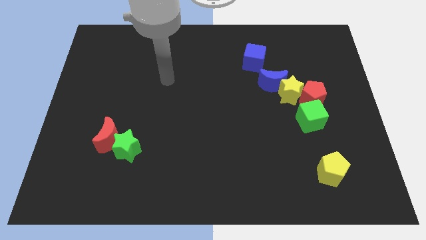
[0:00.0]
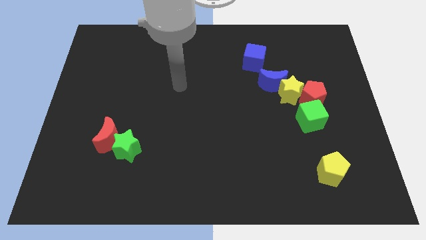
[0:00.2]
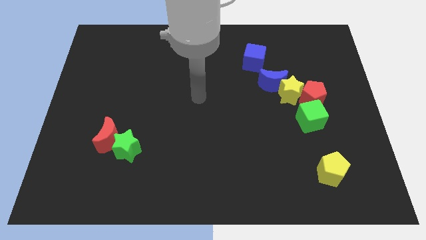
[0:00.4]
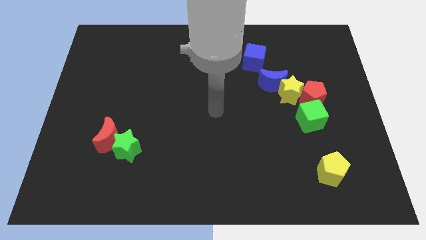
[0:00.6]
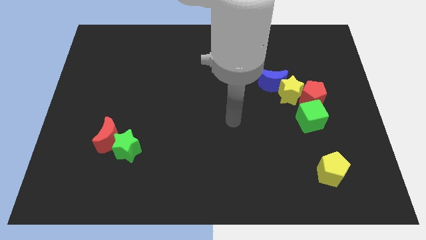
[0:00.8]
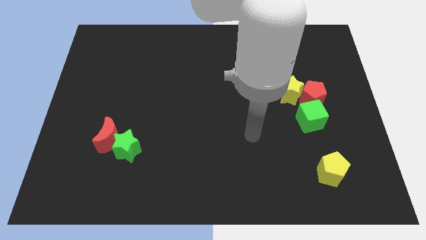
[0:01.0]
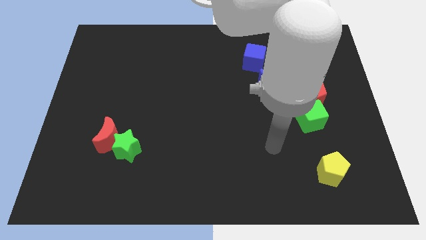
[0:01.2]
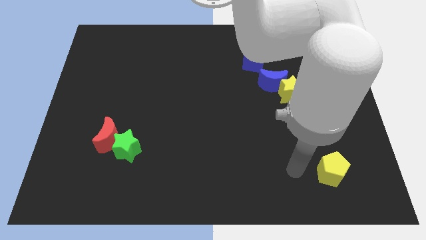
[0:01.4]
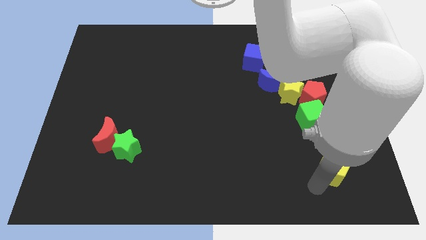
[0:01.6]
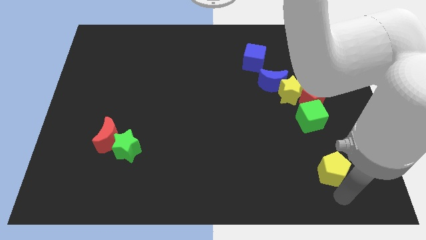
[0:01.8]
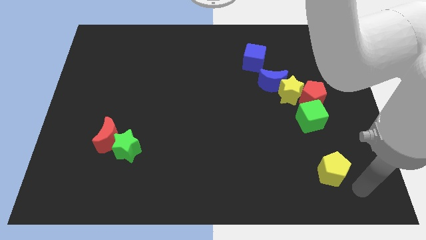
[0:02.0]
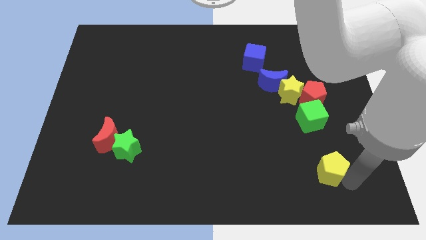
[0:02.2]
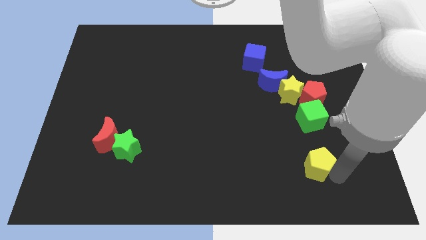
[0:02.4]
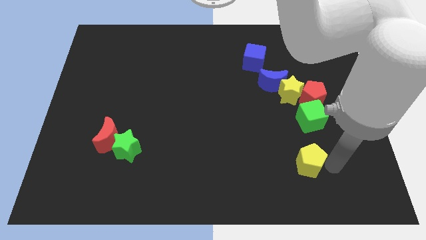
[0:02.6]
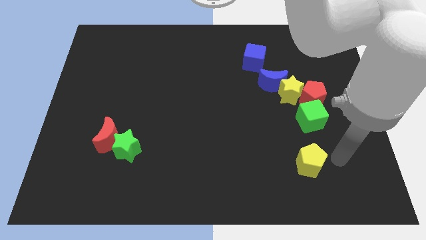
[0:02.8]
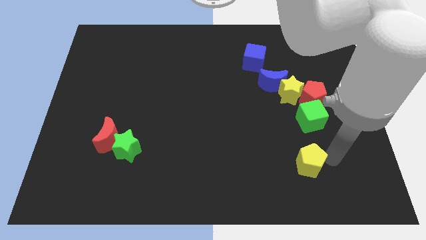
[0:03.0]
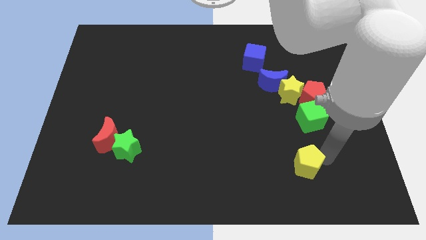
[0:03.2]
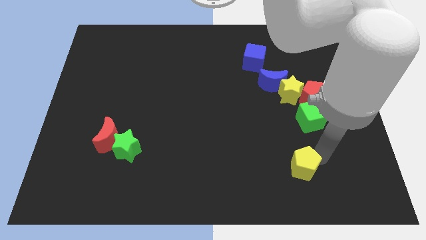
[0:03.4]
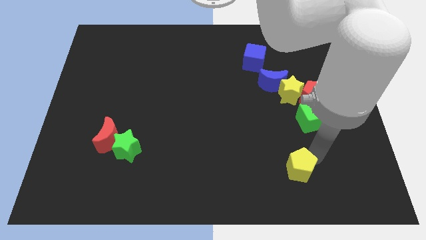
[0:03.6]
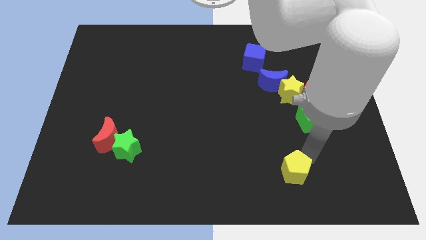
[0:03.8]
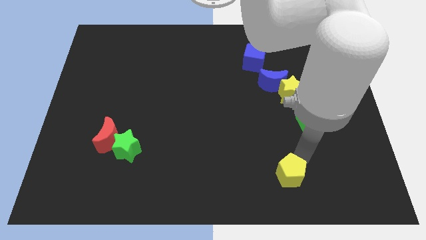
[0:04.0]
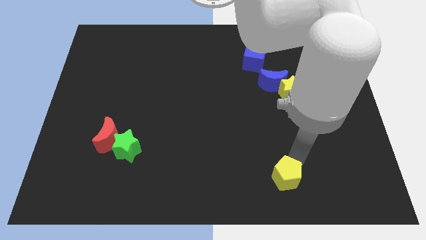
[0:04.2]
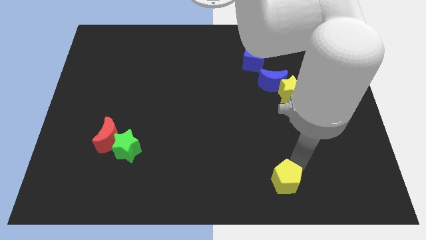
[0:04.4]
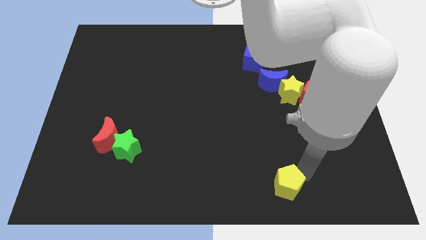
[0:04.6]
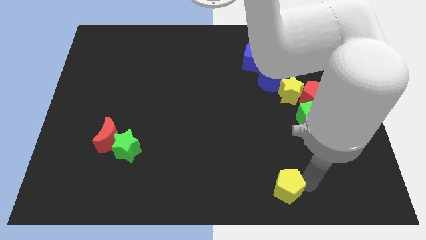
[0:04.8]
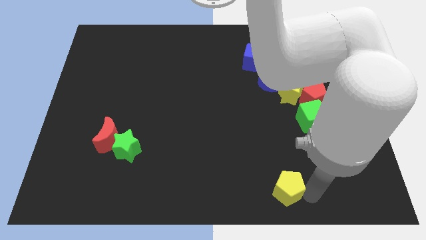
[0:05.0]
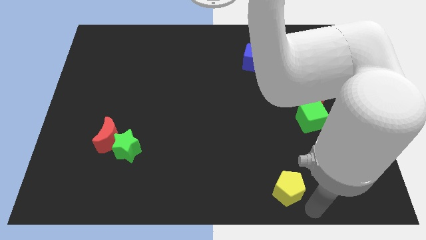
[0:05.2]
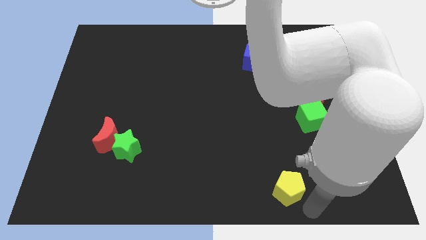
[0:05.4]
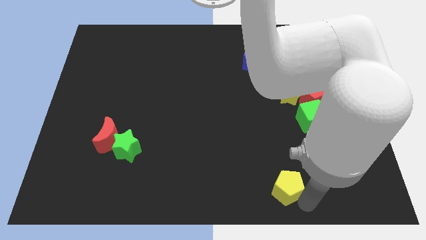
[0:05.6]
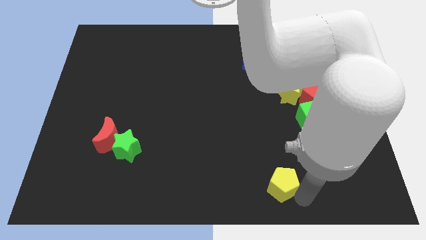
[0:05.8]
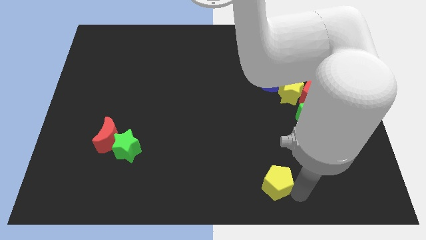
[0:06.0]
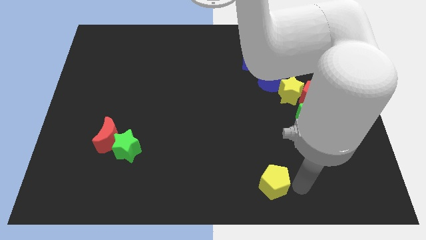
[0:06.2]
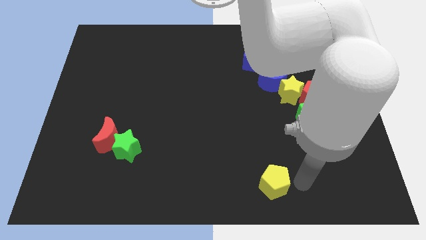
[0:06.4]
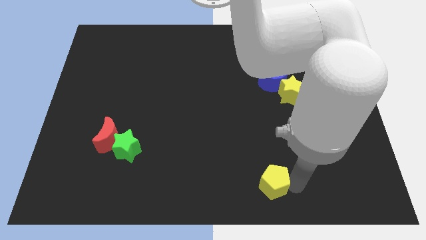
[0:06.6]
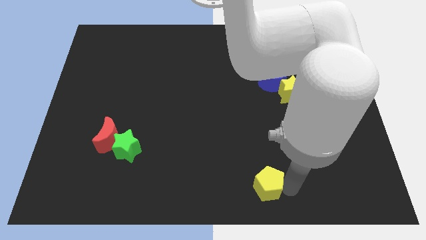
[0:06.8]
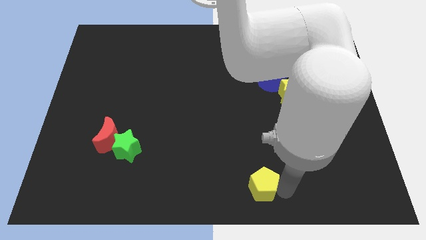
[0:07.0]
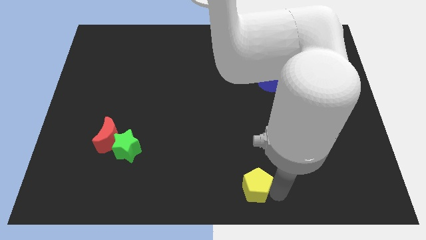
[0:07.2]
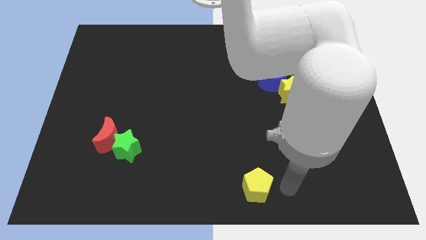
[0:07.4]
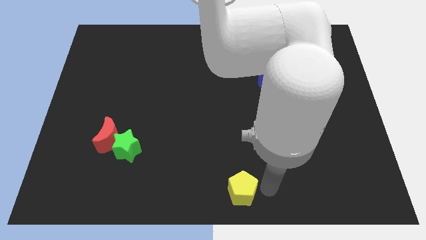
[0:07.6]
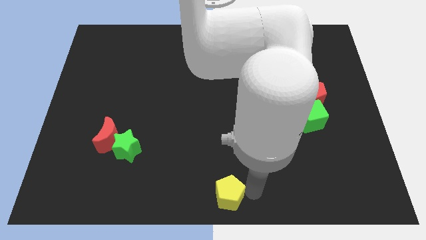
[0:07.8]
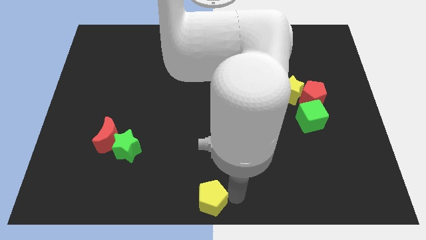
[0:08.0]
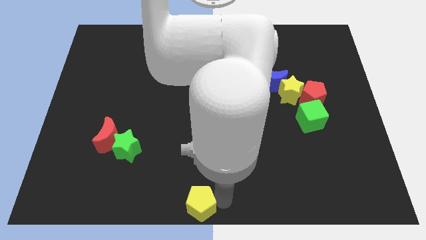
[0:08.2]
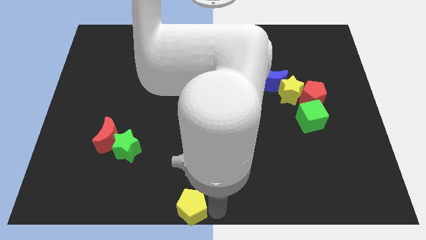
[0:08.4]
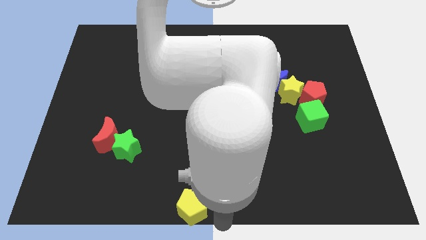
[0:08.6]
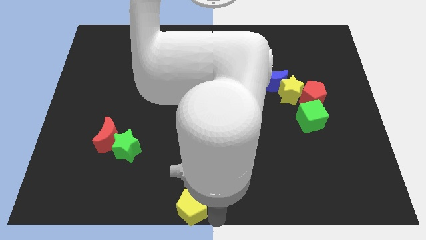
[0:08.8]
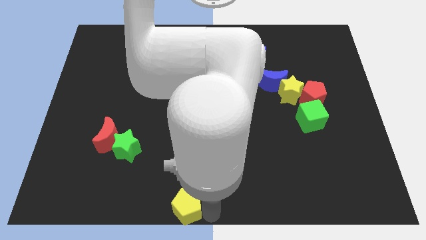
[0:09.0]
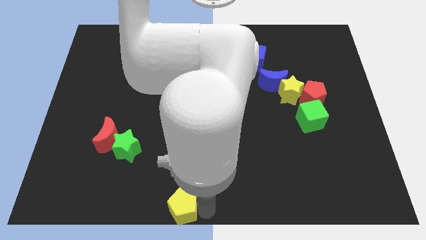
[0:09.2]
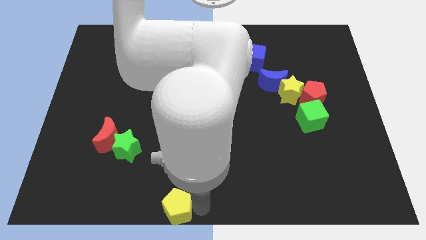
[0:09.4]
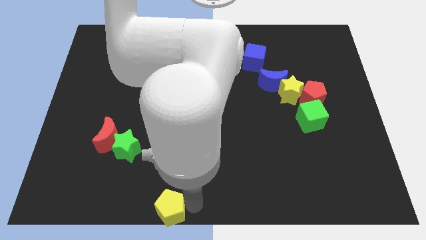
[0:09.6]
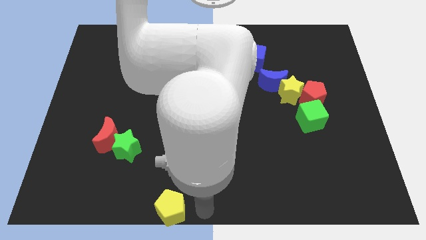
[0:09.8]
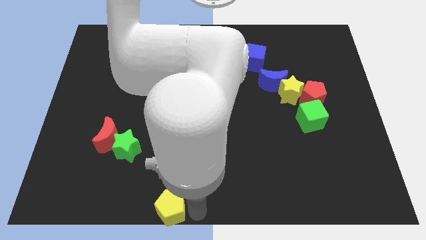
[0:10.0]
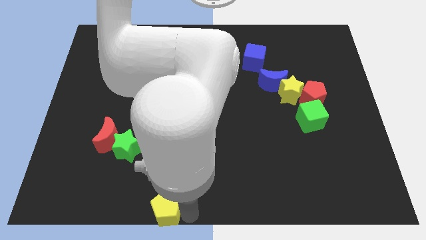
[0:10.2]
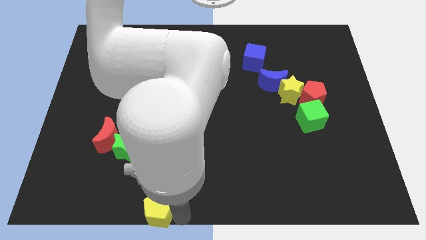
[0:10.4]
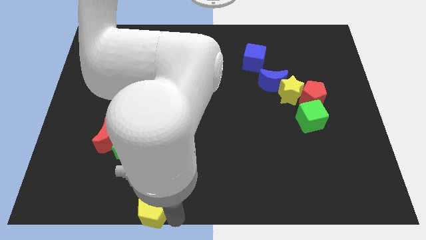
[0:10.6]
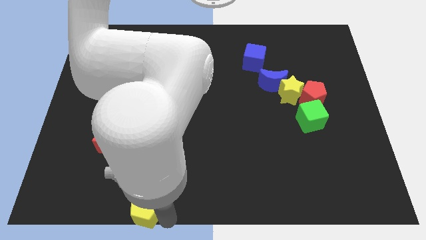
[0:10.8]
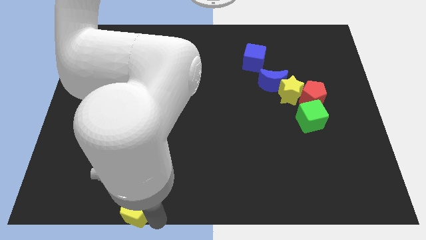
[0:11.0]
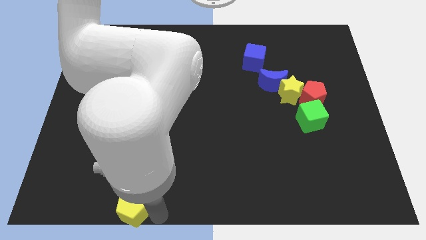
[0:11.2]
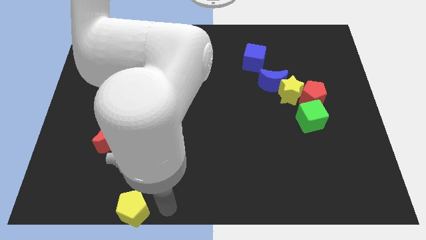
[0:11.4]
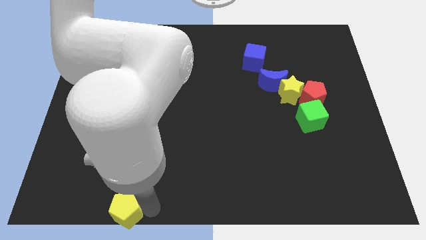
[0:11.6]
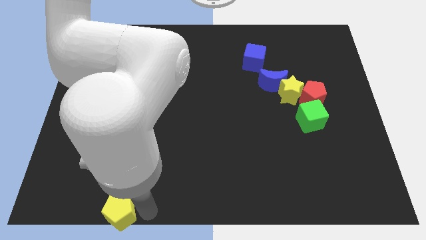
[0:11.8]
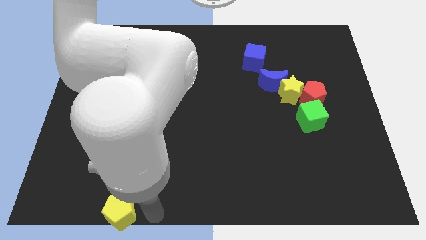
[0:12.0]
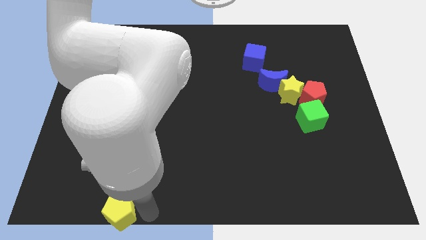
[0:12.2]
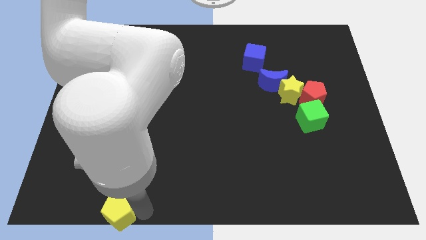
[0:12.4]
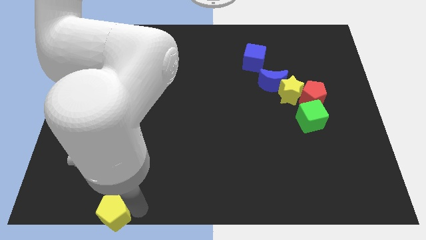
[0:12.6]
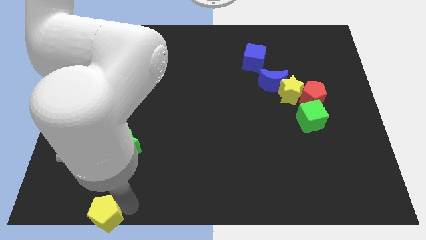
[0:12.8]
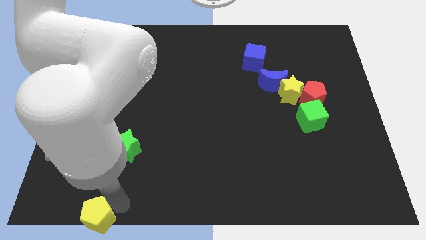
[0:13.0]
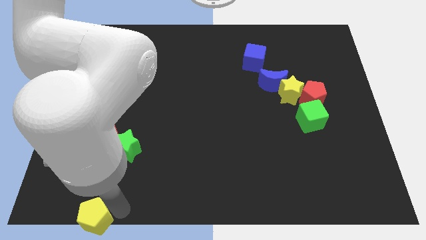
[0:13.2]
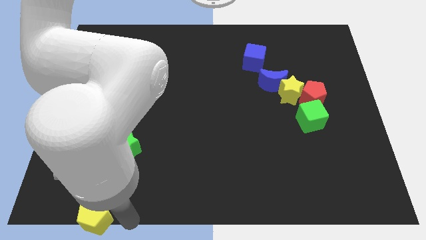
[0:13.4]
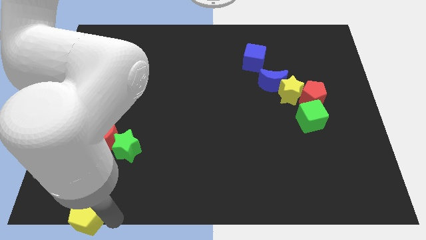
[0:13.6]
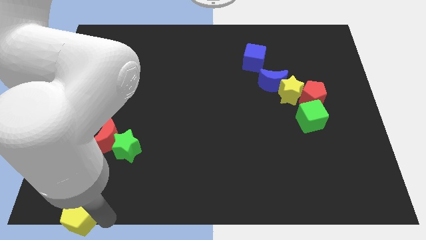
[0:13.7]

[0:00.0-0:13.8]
put the yellow pentagon to the bottom left of the board
